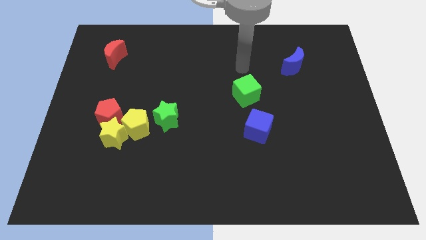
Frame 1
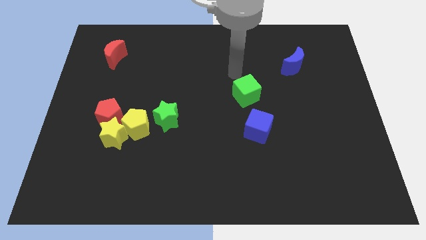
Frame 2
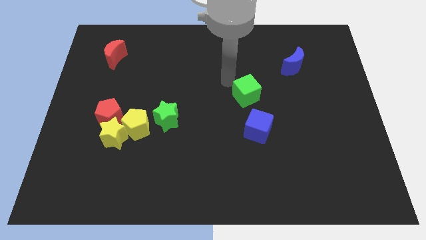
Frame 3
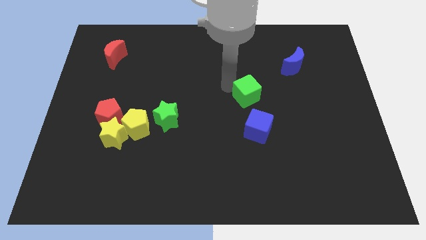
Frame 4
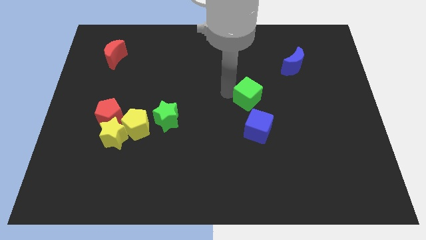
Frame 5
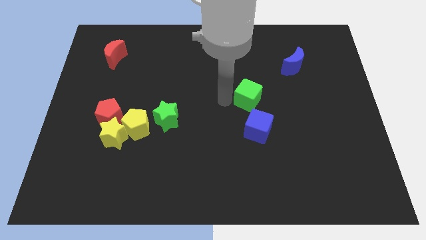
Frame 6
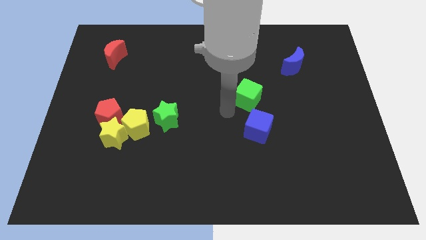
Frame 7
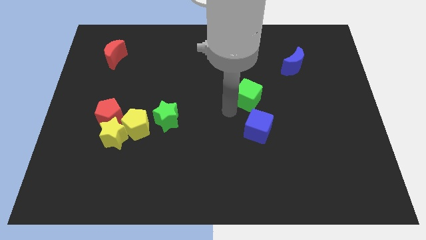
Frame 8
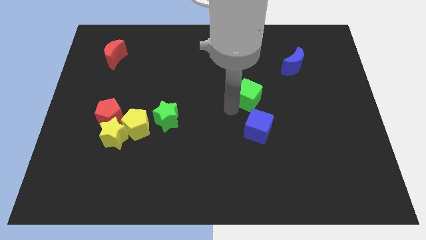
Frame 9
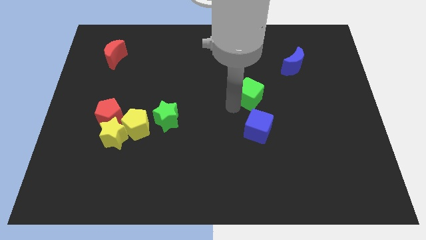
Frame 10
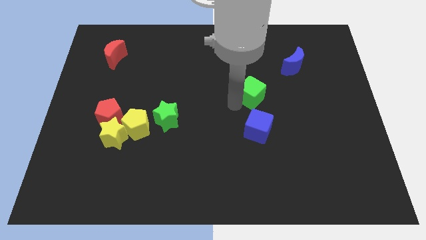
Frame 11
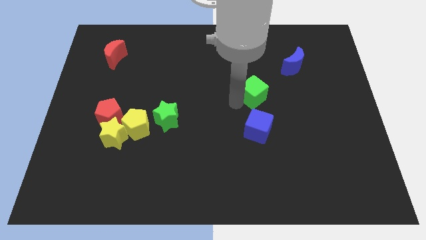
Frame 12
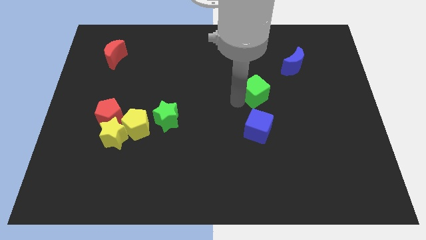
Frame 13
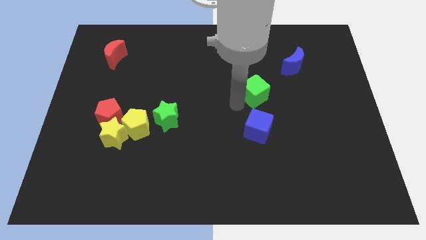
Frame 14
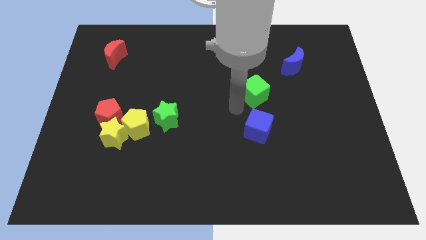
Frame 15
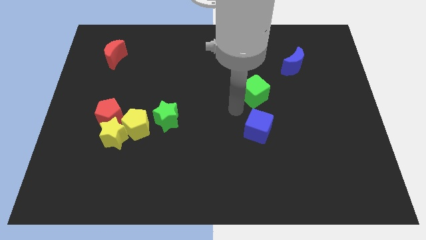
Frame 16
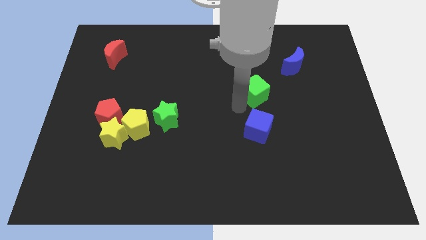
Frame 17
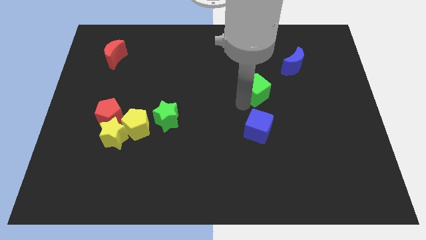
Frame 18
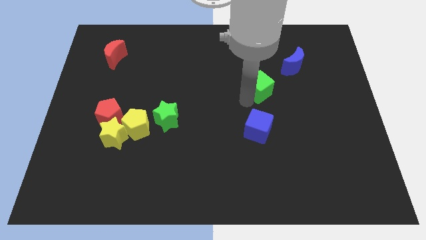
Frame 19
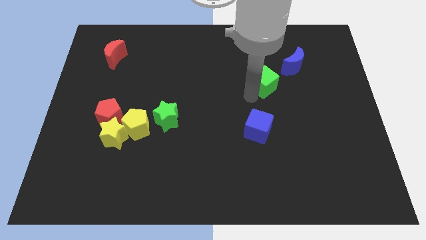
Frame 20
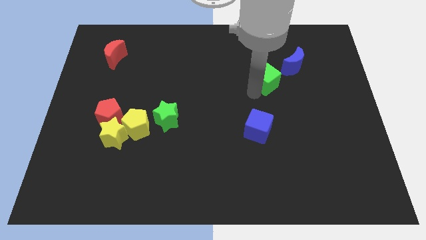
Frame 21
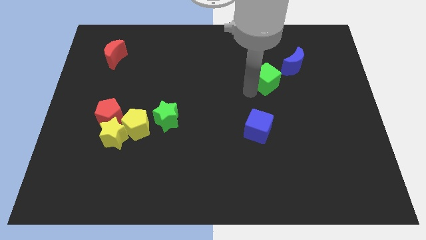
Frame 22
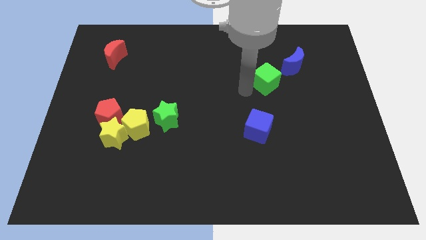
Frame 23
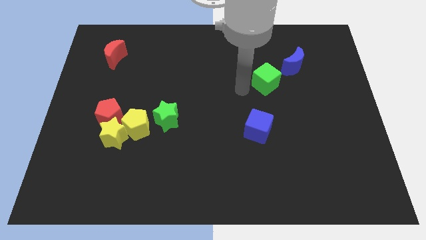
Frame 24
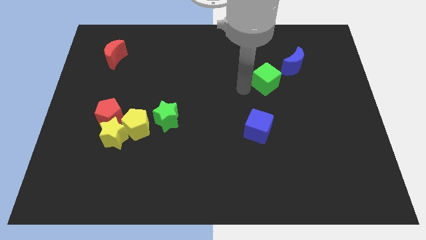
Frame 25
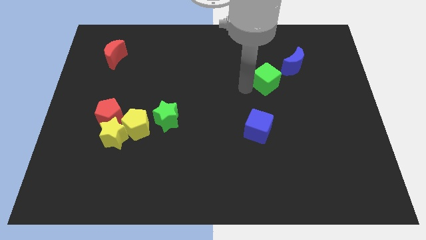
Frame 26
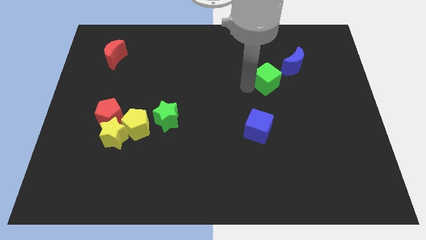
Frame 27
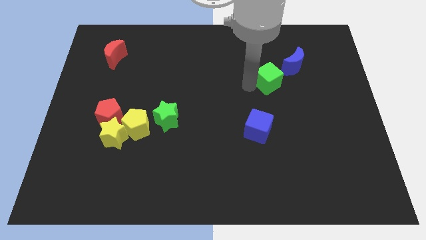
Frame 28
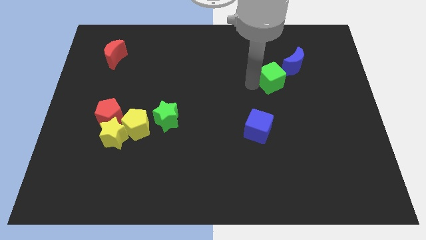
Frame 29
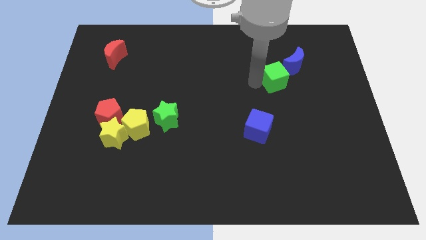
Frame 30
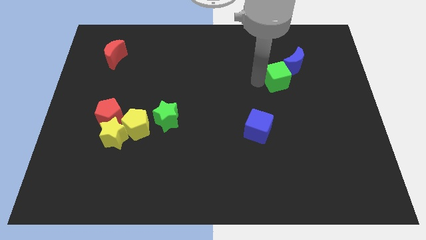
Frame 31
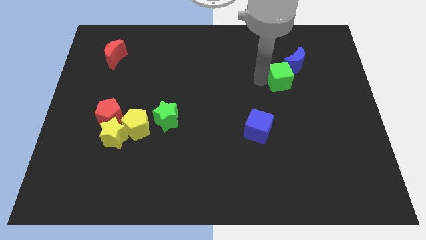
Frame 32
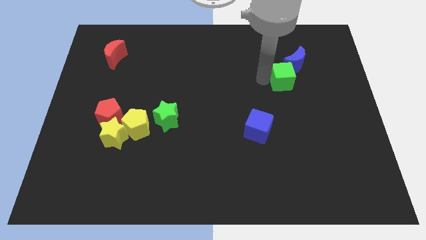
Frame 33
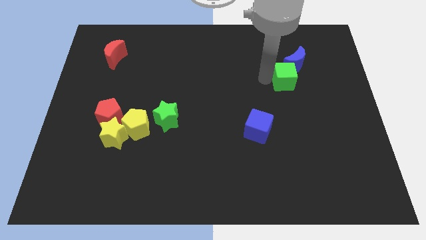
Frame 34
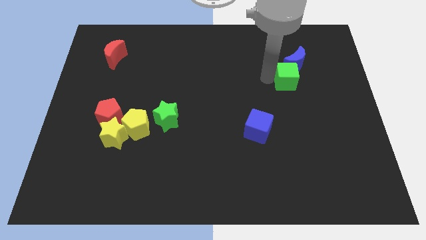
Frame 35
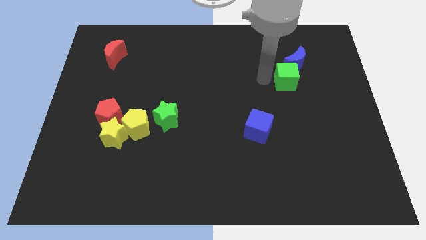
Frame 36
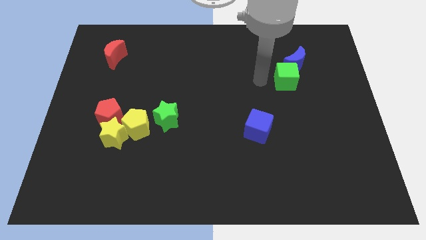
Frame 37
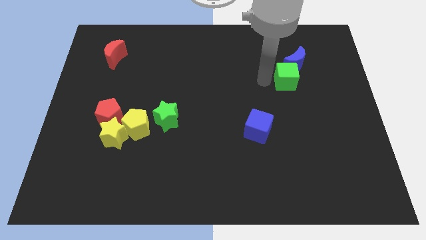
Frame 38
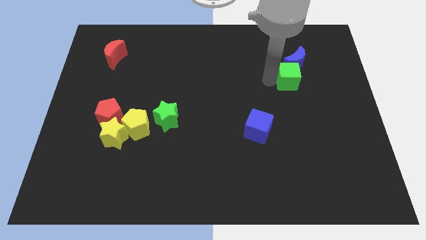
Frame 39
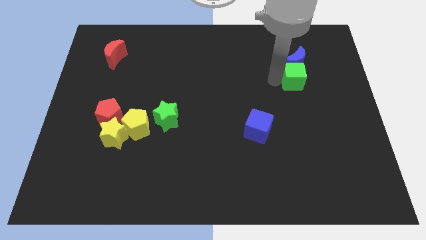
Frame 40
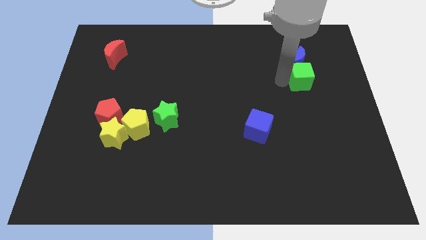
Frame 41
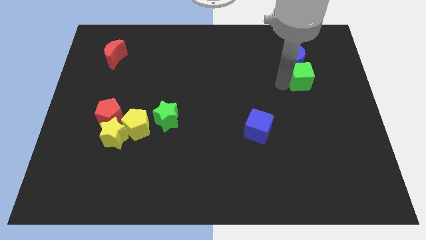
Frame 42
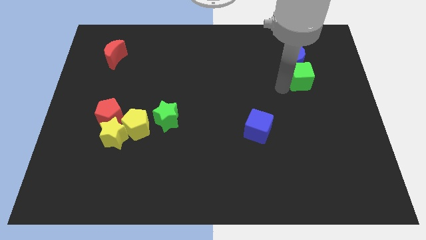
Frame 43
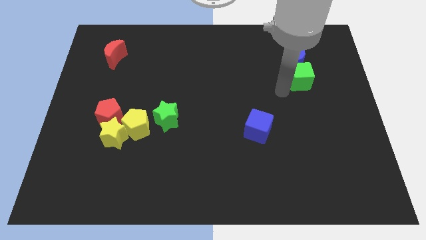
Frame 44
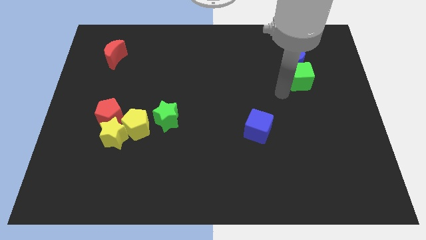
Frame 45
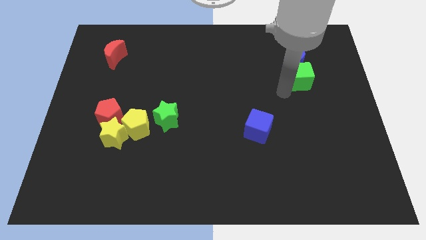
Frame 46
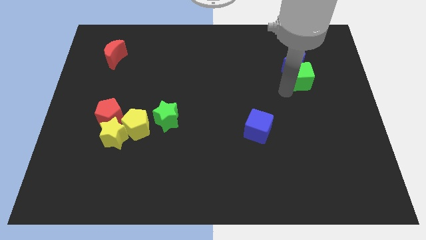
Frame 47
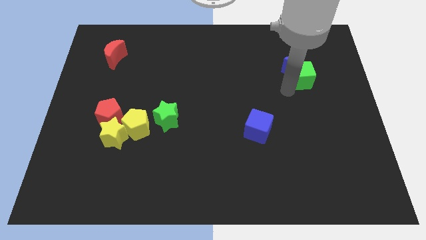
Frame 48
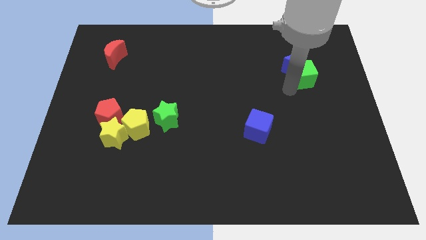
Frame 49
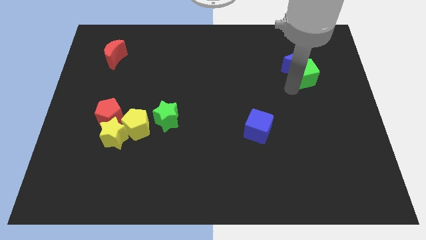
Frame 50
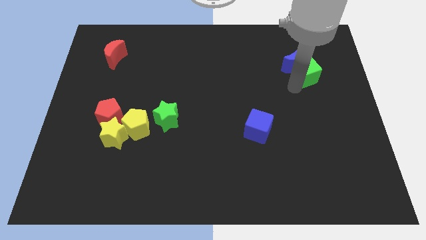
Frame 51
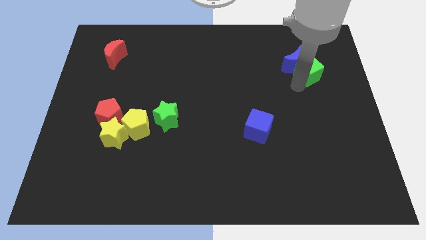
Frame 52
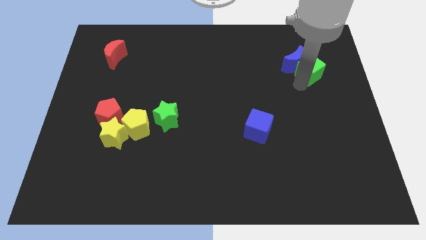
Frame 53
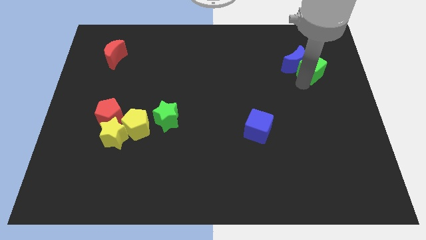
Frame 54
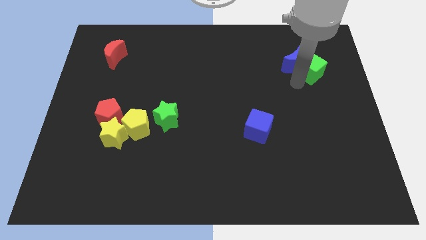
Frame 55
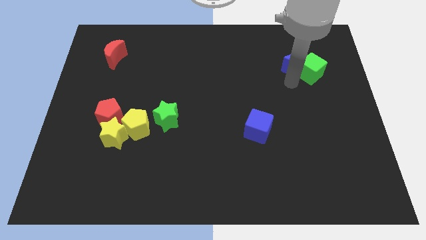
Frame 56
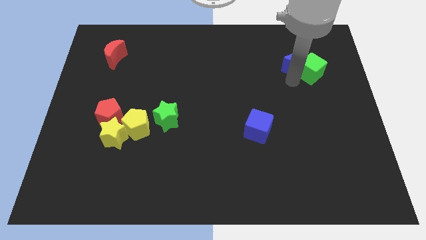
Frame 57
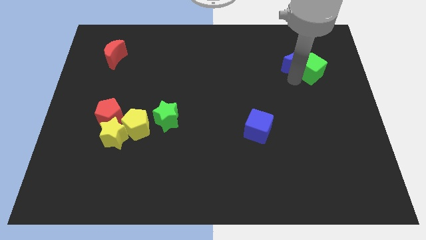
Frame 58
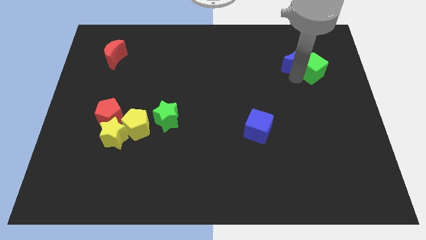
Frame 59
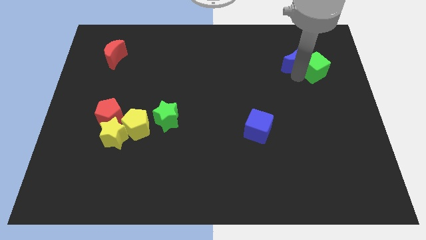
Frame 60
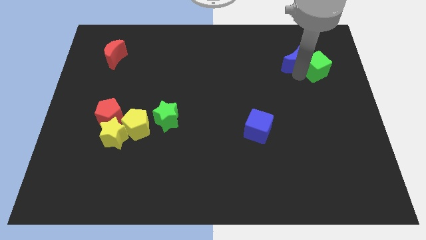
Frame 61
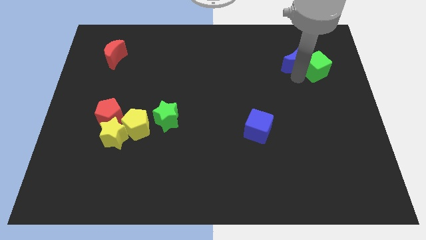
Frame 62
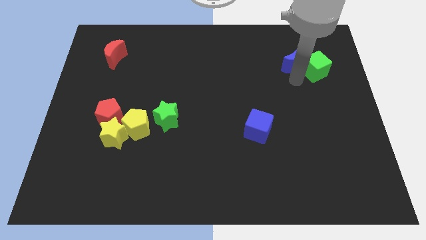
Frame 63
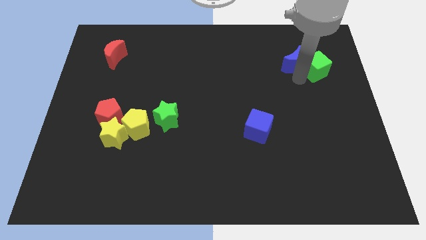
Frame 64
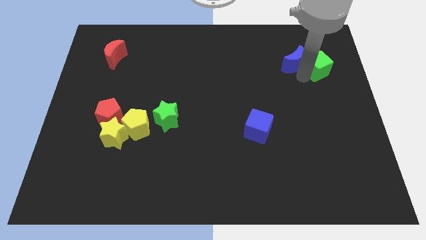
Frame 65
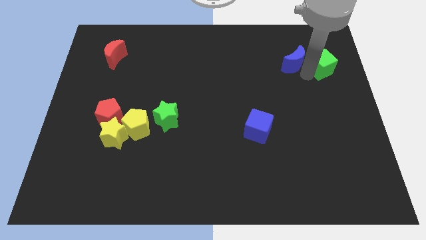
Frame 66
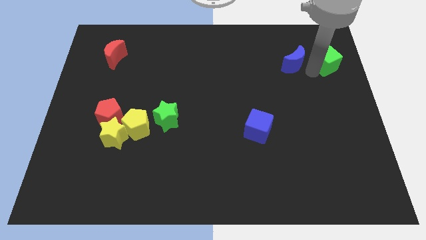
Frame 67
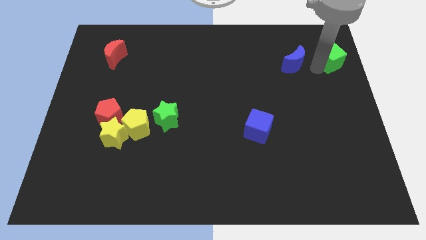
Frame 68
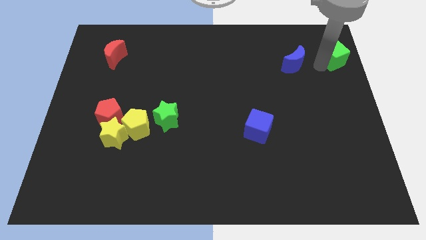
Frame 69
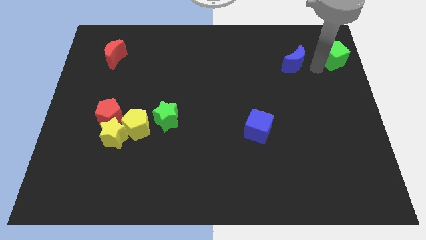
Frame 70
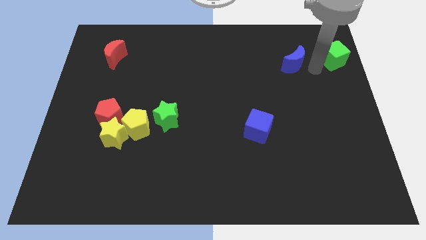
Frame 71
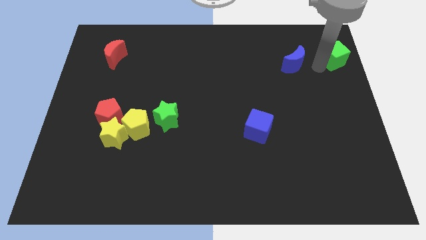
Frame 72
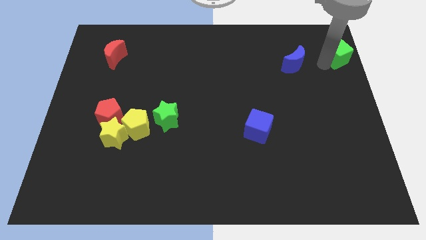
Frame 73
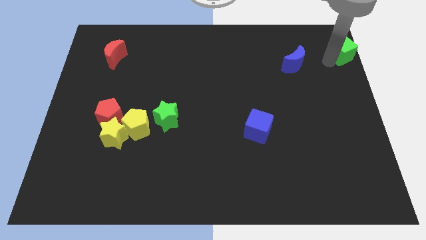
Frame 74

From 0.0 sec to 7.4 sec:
move the green cube to the top right
